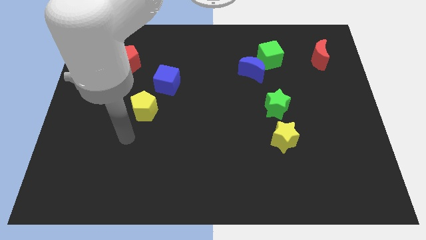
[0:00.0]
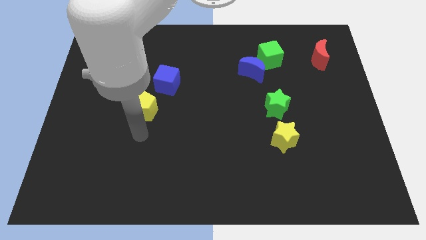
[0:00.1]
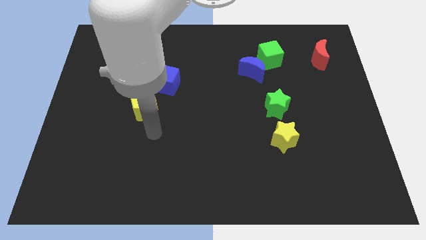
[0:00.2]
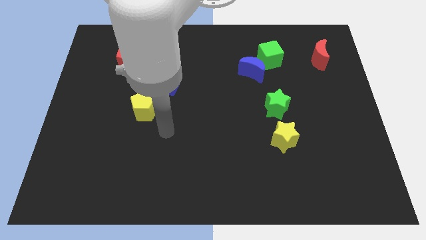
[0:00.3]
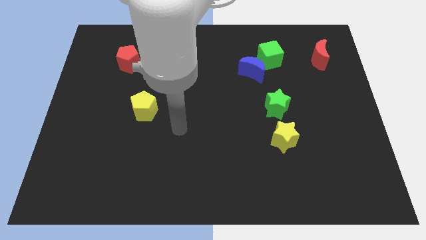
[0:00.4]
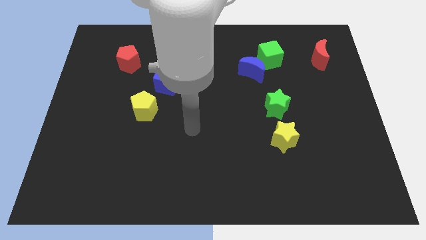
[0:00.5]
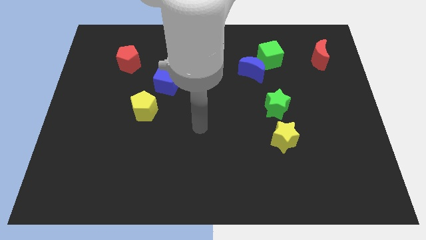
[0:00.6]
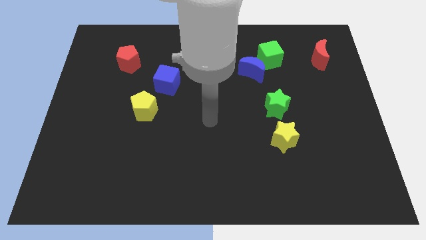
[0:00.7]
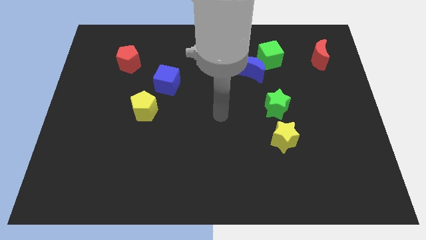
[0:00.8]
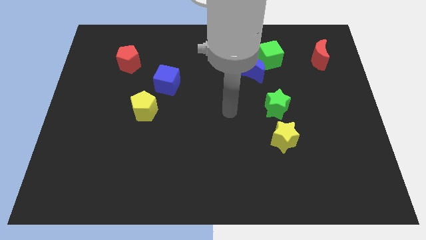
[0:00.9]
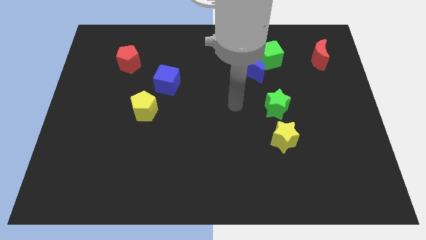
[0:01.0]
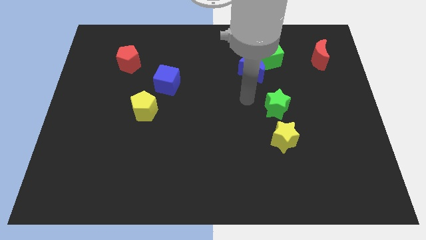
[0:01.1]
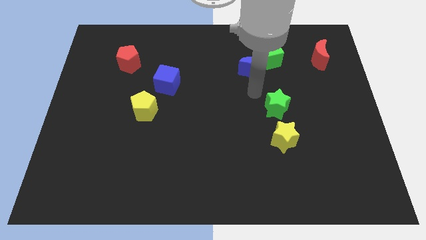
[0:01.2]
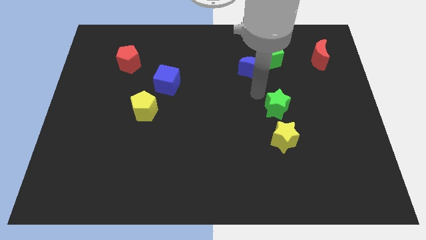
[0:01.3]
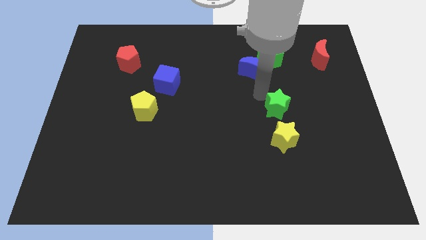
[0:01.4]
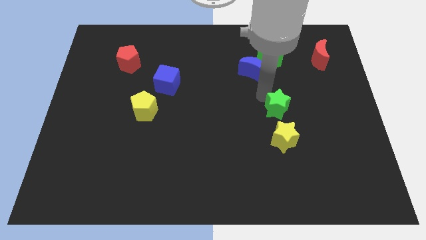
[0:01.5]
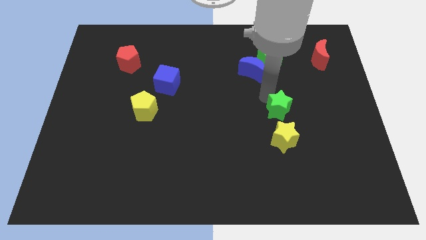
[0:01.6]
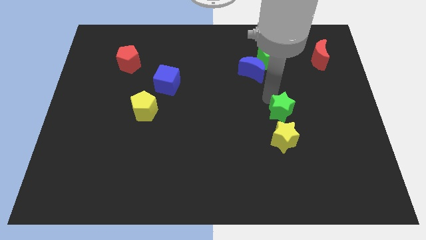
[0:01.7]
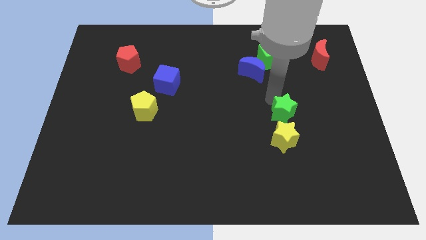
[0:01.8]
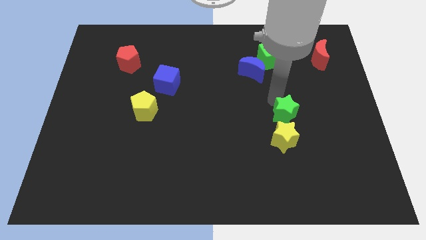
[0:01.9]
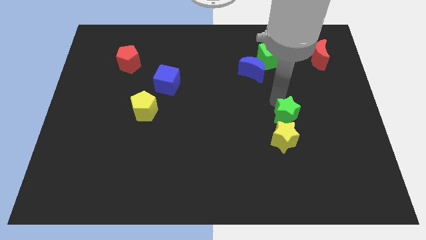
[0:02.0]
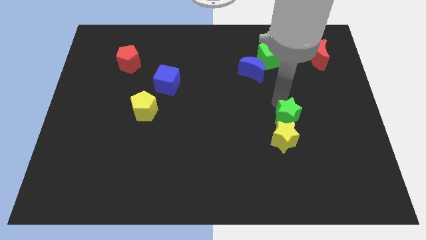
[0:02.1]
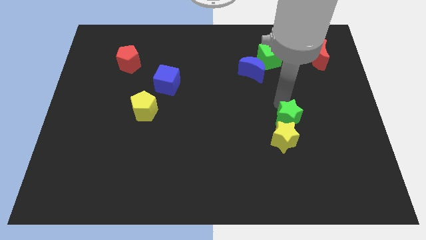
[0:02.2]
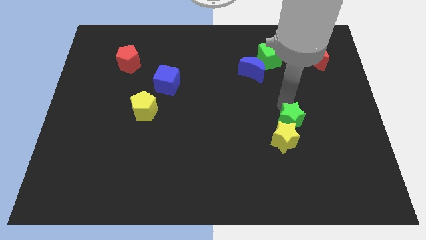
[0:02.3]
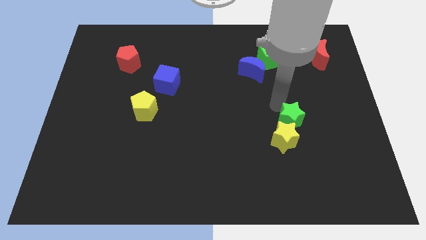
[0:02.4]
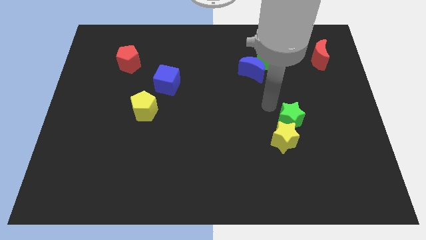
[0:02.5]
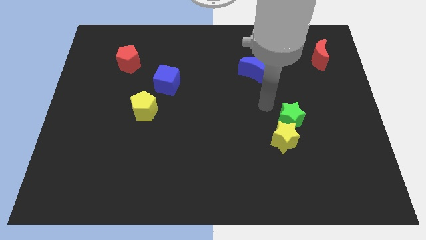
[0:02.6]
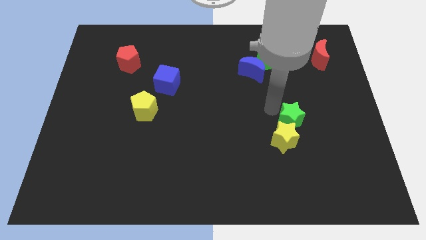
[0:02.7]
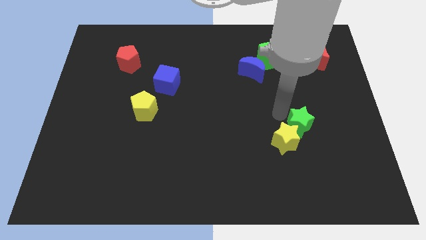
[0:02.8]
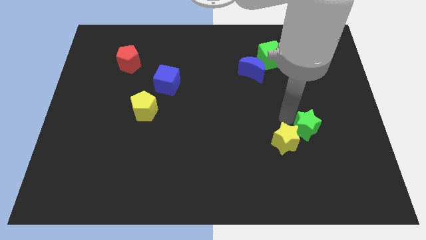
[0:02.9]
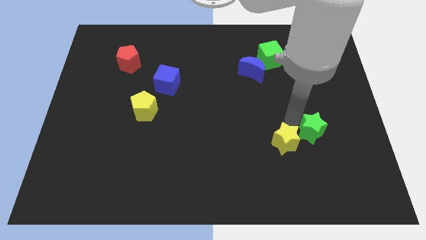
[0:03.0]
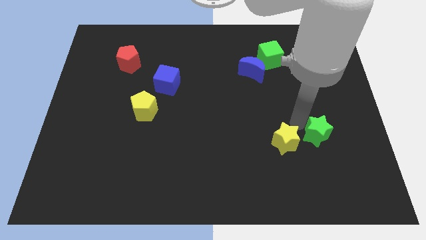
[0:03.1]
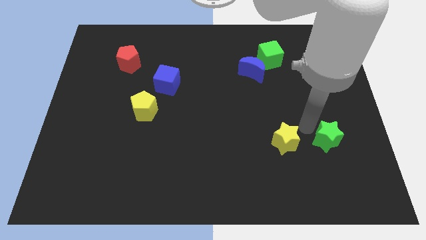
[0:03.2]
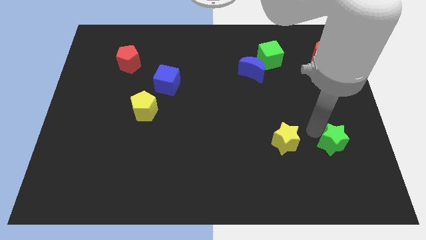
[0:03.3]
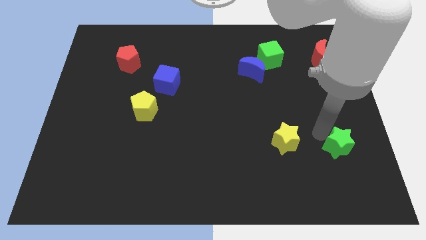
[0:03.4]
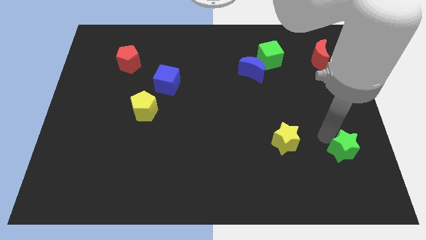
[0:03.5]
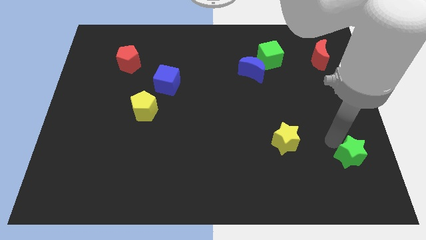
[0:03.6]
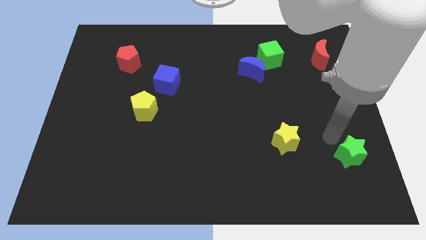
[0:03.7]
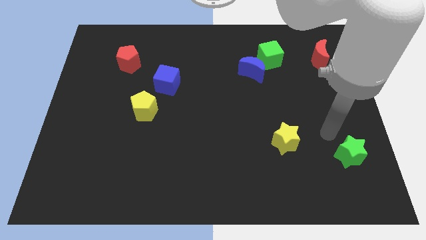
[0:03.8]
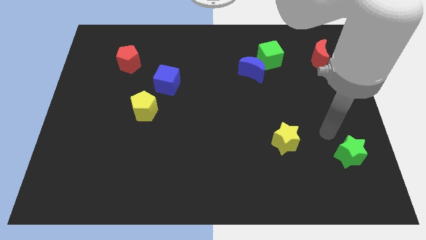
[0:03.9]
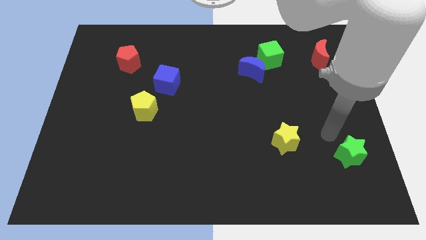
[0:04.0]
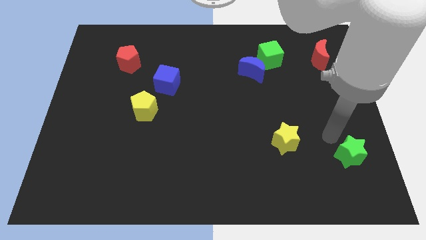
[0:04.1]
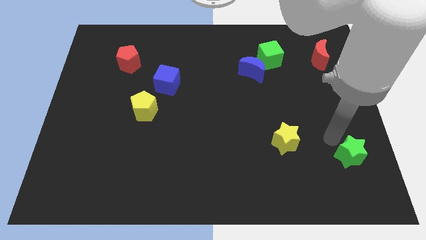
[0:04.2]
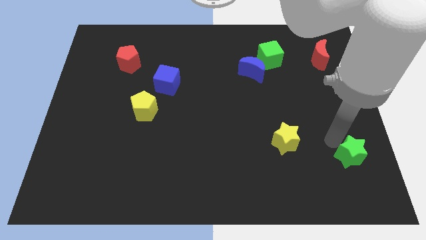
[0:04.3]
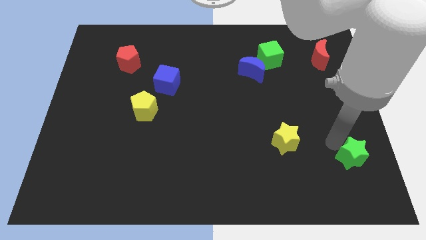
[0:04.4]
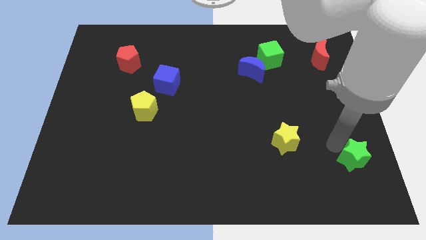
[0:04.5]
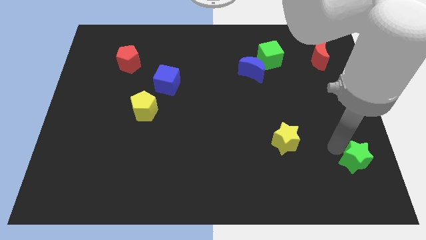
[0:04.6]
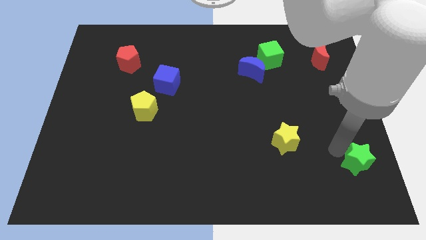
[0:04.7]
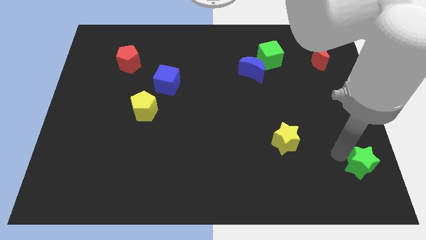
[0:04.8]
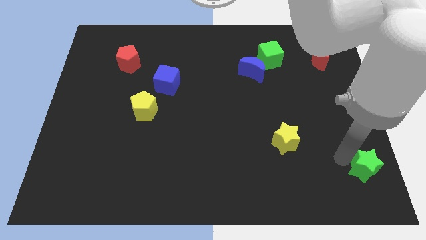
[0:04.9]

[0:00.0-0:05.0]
move the green star to the bottom right of the board

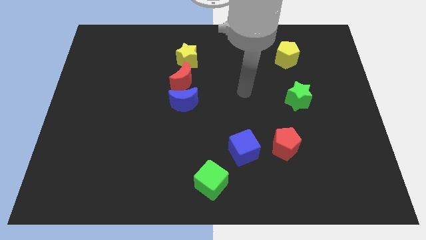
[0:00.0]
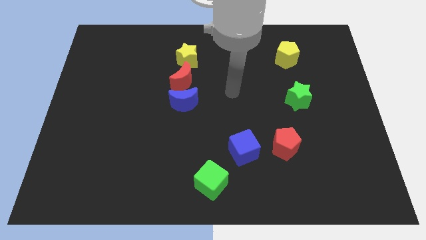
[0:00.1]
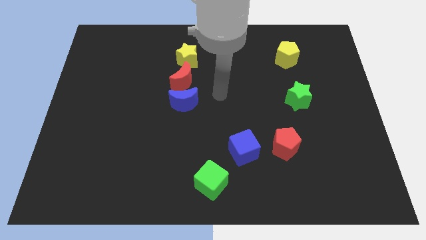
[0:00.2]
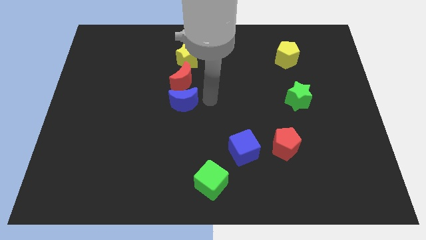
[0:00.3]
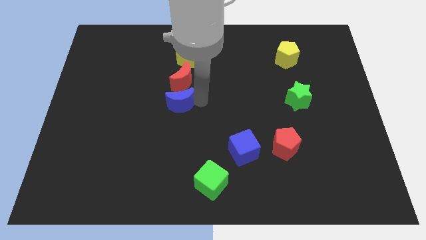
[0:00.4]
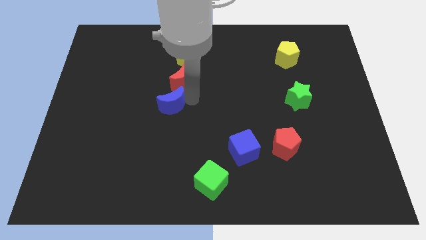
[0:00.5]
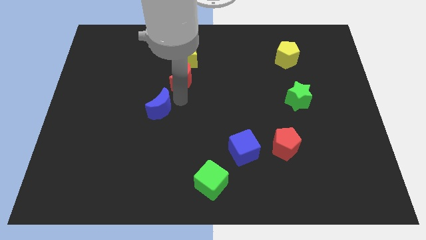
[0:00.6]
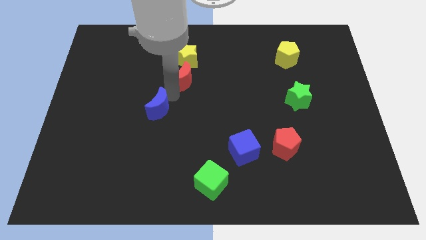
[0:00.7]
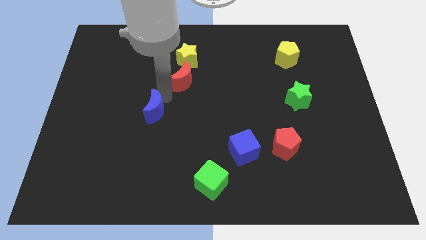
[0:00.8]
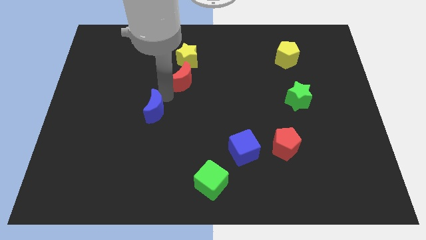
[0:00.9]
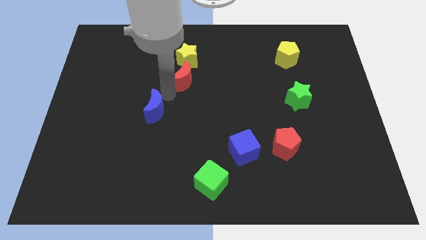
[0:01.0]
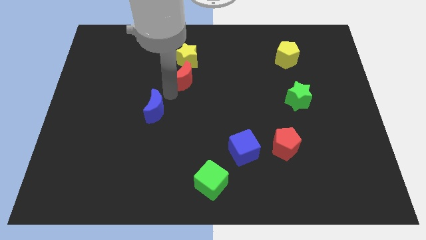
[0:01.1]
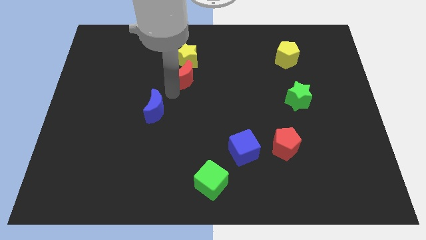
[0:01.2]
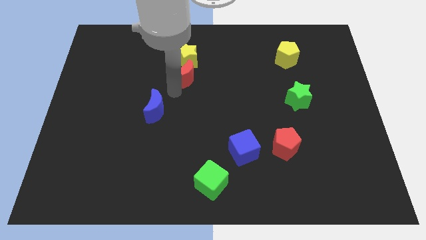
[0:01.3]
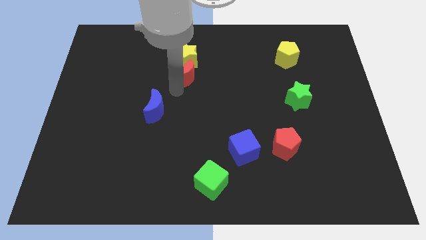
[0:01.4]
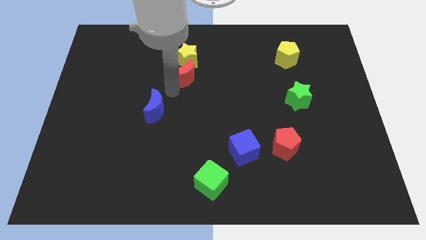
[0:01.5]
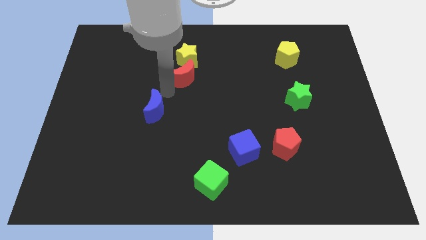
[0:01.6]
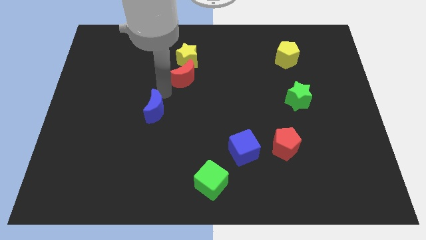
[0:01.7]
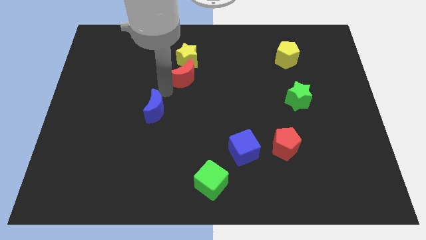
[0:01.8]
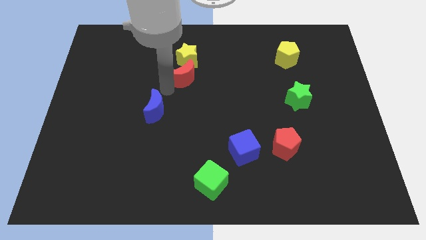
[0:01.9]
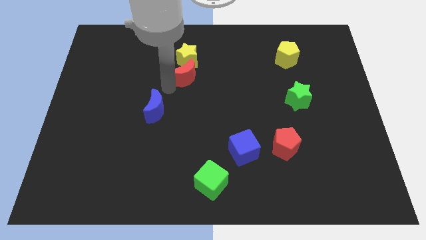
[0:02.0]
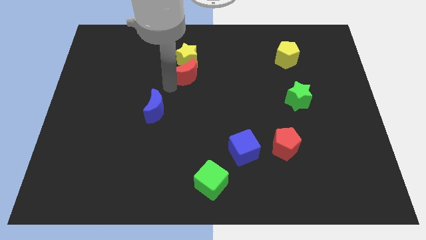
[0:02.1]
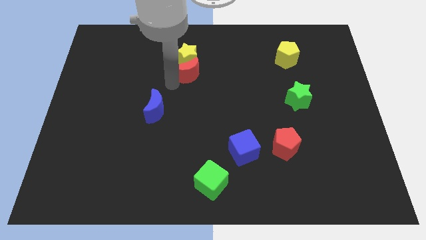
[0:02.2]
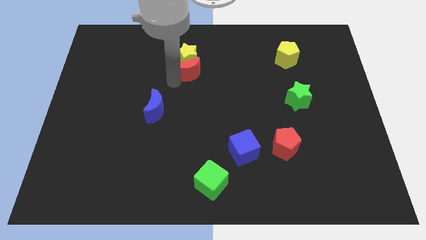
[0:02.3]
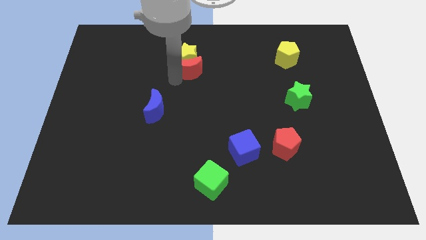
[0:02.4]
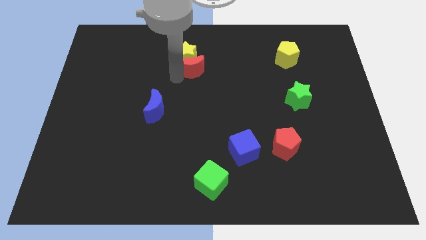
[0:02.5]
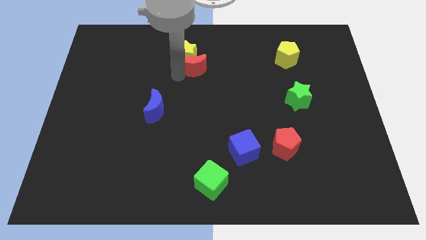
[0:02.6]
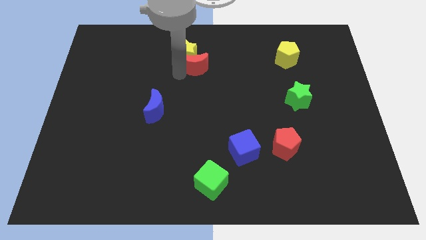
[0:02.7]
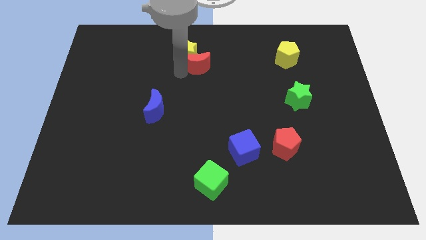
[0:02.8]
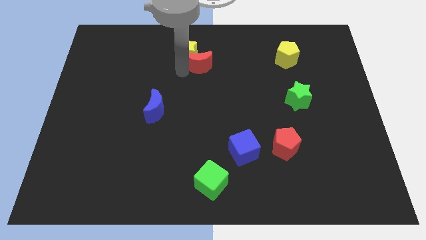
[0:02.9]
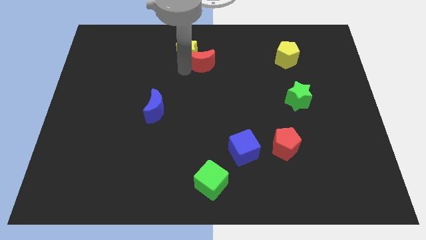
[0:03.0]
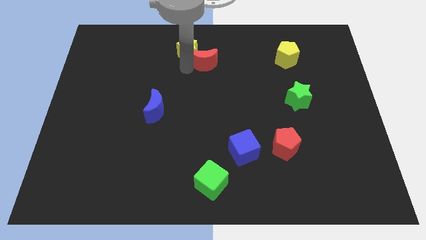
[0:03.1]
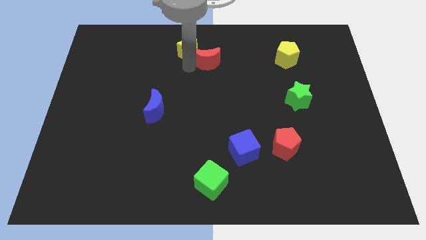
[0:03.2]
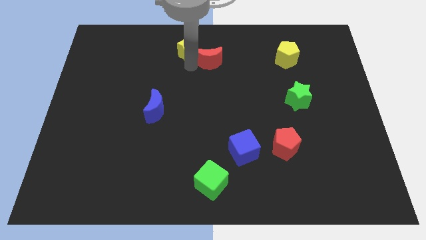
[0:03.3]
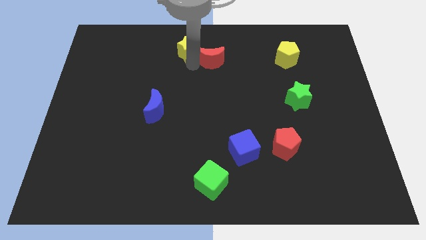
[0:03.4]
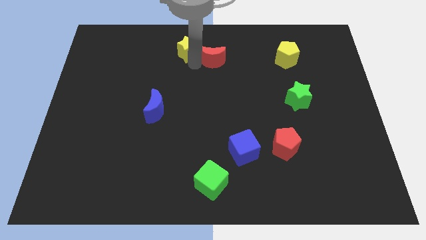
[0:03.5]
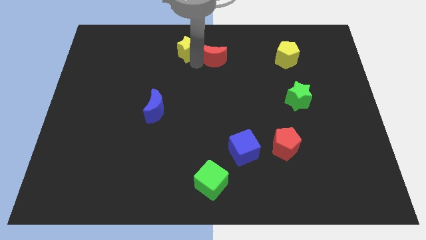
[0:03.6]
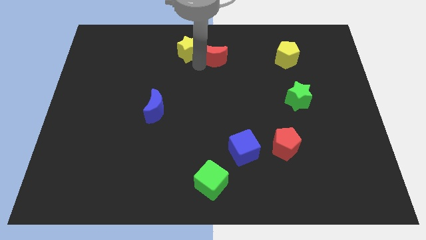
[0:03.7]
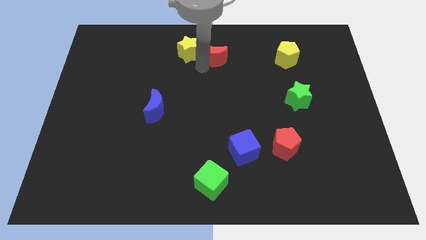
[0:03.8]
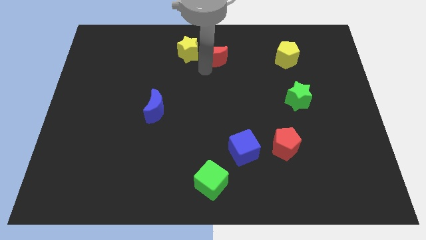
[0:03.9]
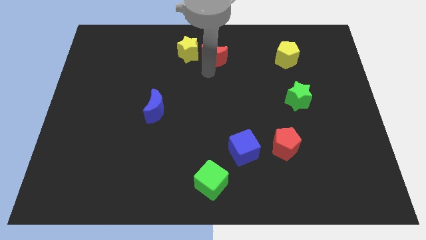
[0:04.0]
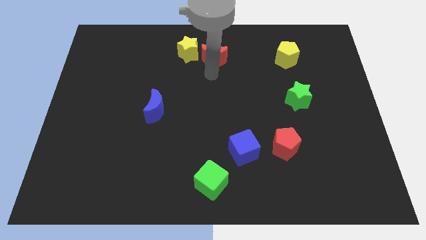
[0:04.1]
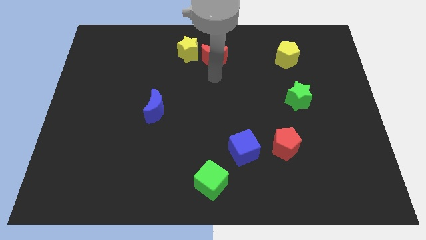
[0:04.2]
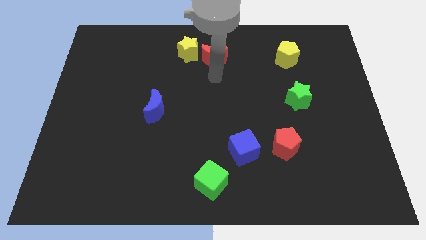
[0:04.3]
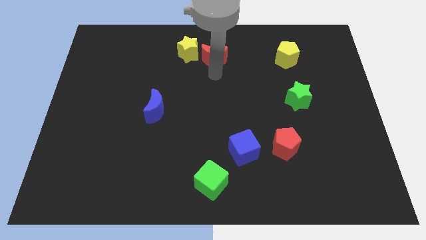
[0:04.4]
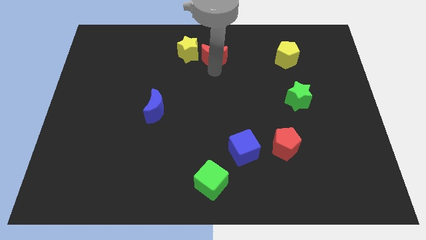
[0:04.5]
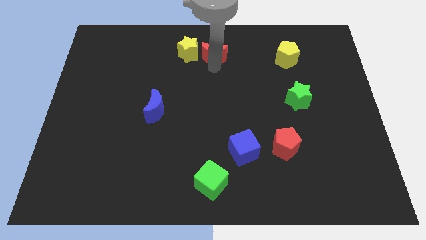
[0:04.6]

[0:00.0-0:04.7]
put the red moon to the top
